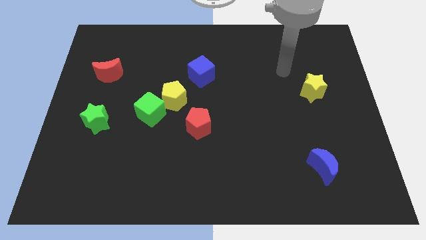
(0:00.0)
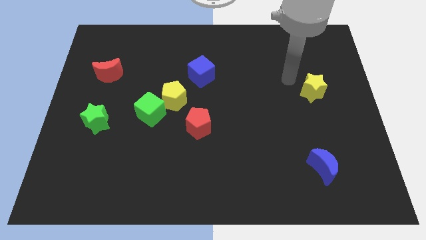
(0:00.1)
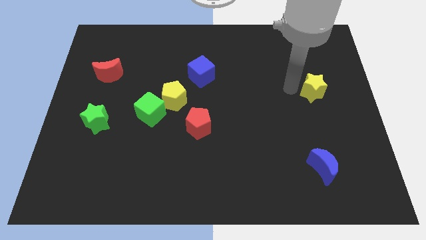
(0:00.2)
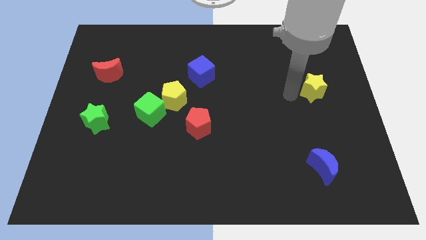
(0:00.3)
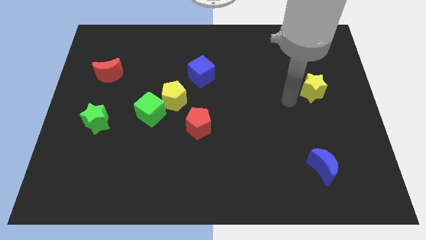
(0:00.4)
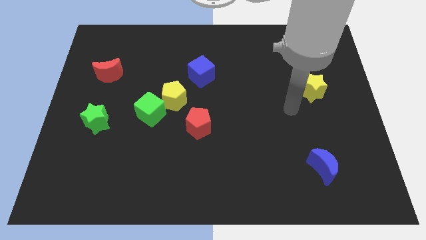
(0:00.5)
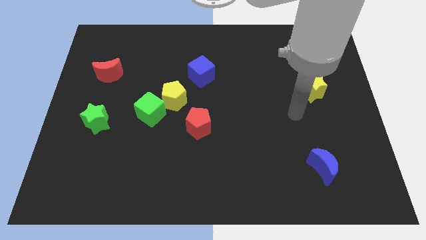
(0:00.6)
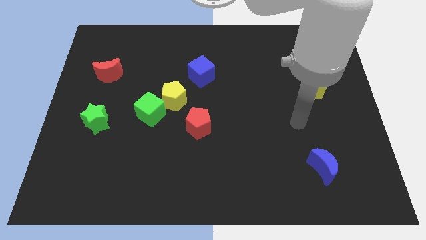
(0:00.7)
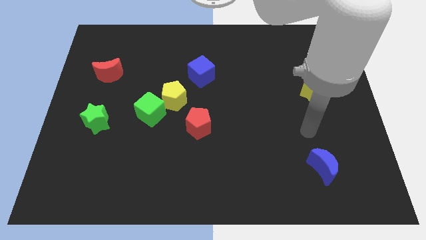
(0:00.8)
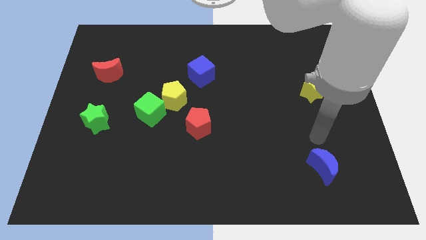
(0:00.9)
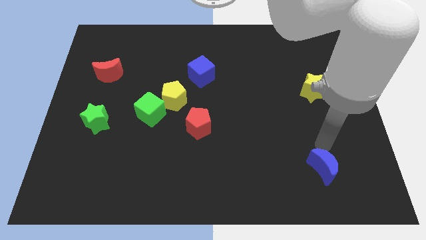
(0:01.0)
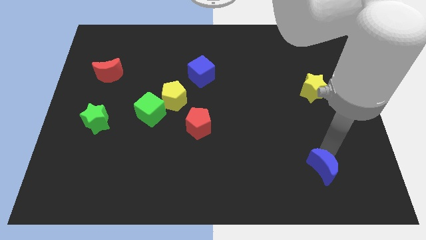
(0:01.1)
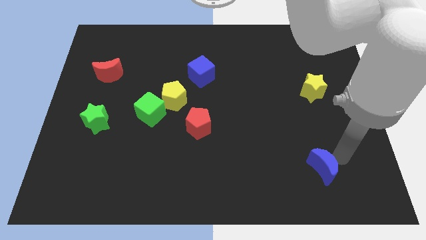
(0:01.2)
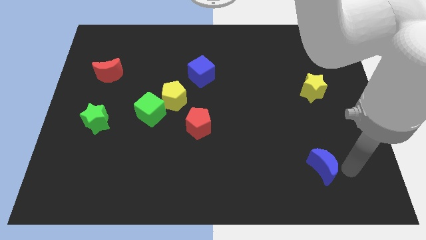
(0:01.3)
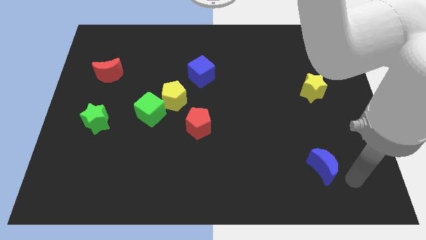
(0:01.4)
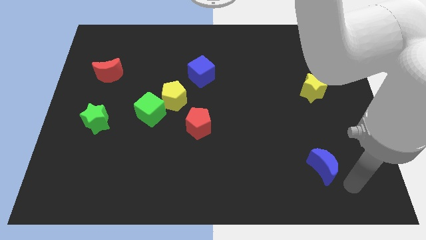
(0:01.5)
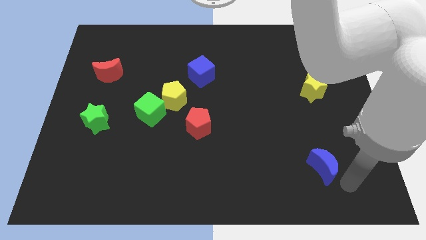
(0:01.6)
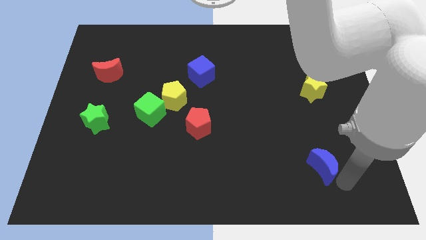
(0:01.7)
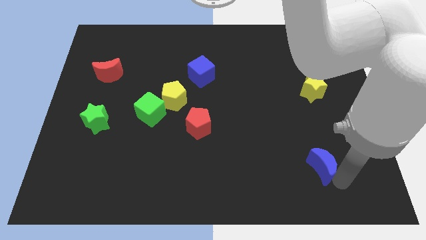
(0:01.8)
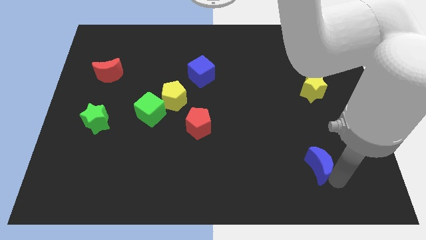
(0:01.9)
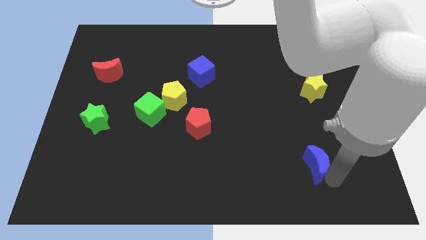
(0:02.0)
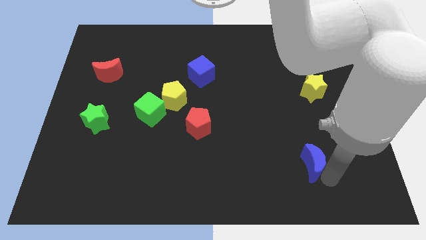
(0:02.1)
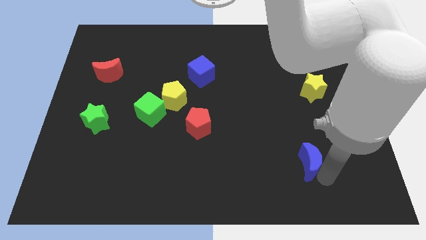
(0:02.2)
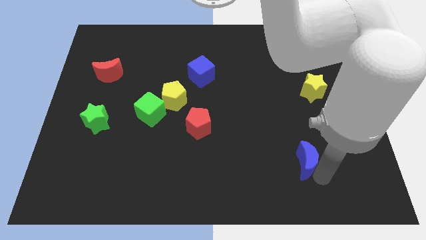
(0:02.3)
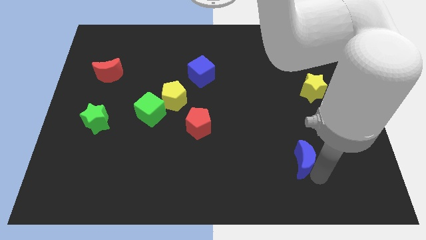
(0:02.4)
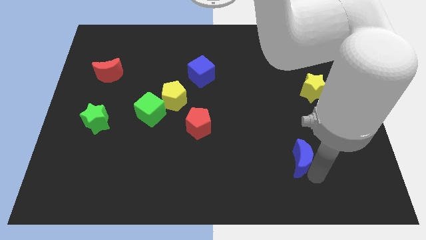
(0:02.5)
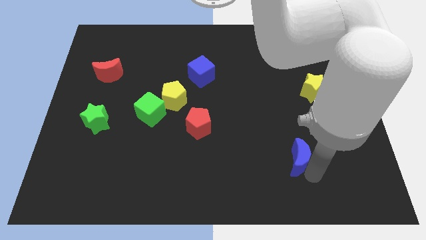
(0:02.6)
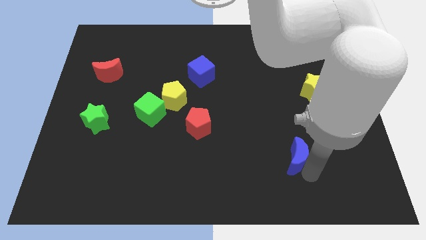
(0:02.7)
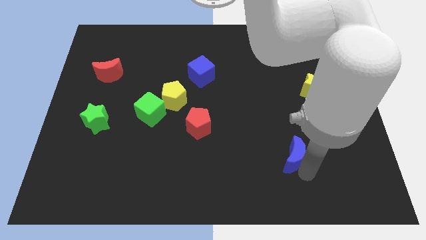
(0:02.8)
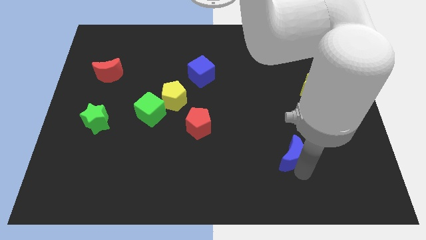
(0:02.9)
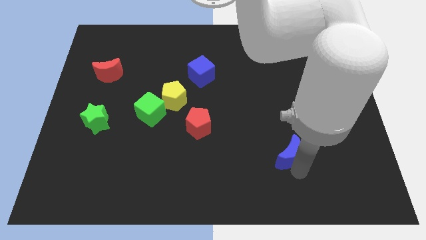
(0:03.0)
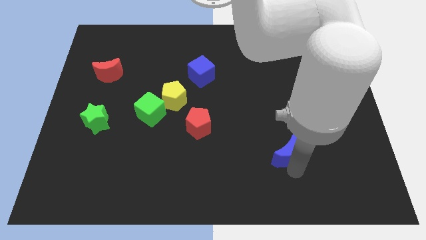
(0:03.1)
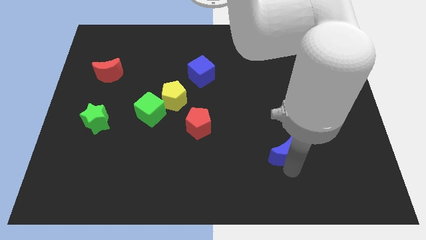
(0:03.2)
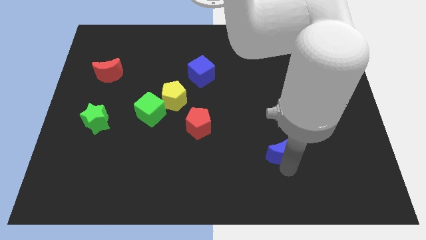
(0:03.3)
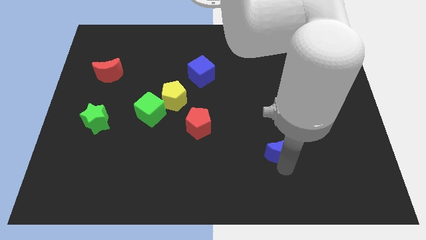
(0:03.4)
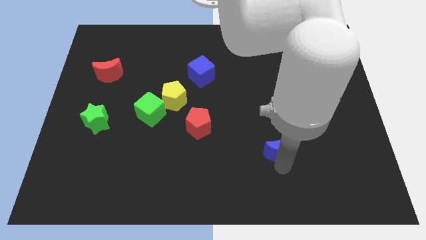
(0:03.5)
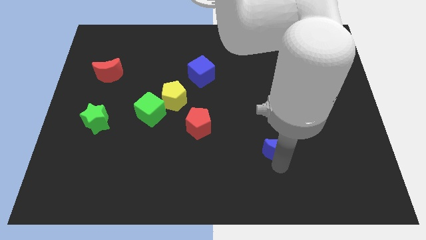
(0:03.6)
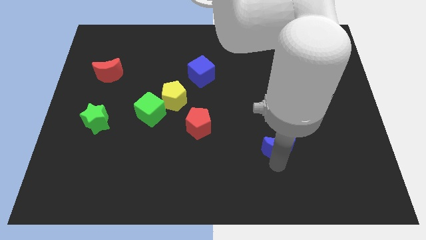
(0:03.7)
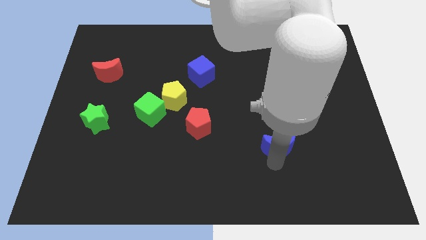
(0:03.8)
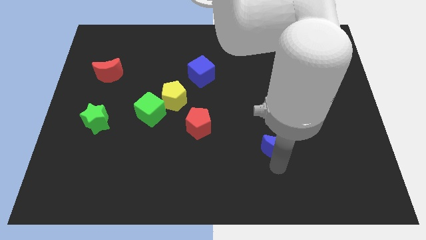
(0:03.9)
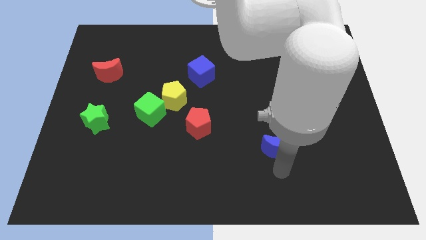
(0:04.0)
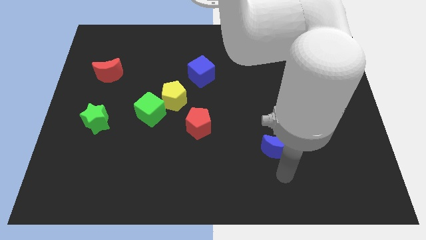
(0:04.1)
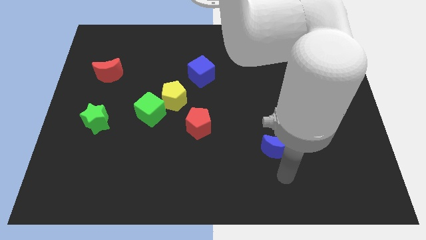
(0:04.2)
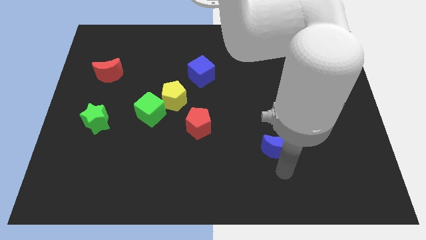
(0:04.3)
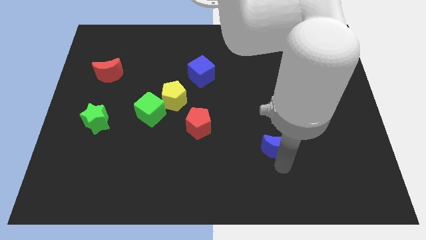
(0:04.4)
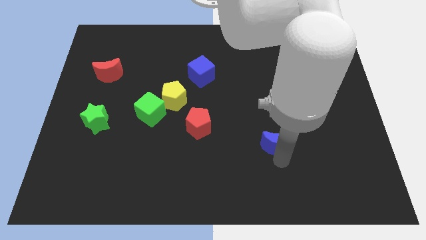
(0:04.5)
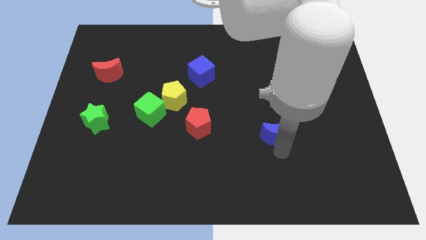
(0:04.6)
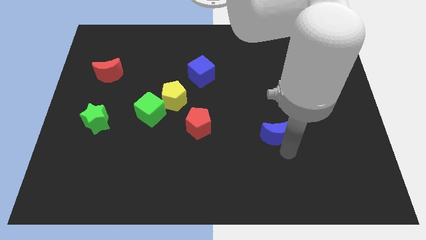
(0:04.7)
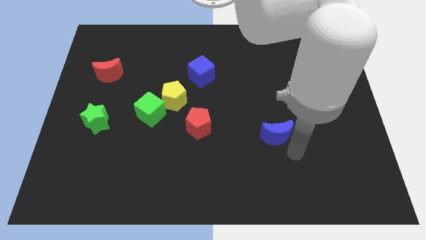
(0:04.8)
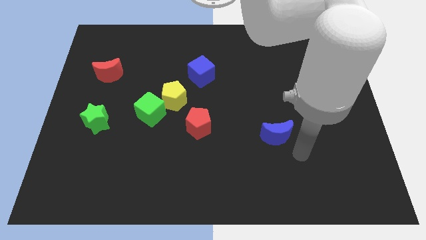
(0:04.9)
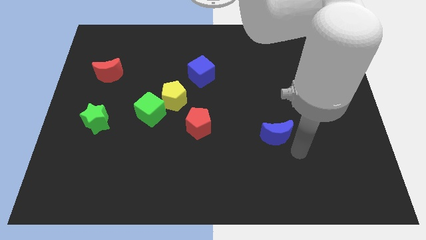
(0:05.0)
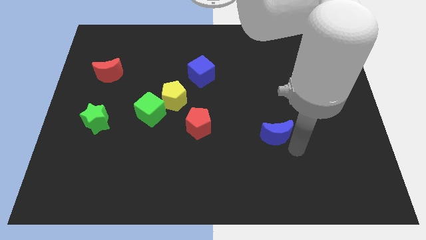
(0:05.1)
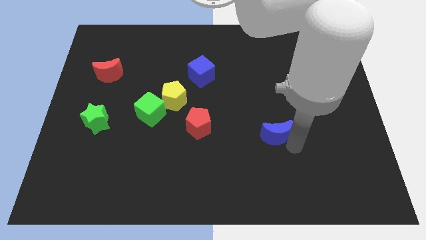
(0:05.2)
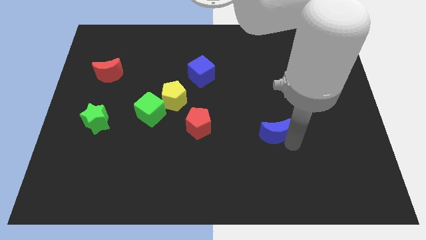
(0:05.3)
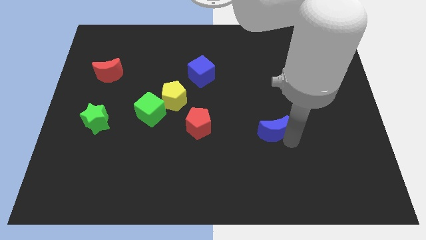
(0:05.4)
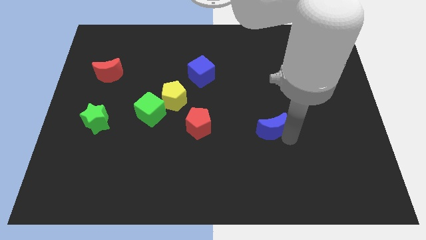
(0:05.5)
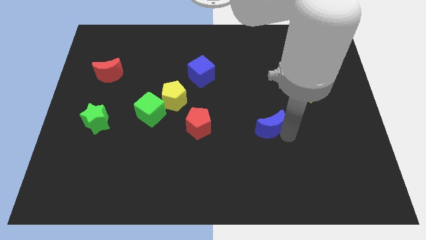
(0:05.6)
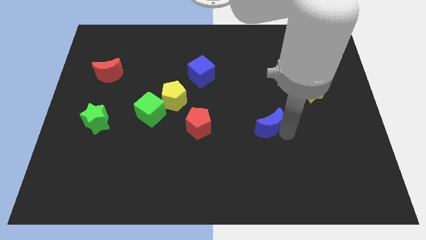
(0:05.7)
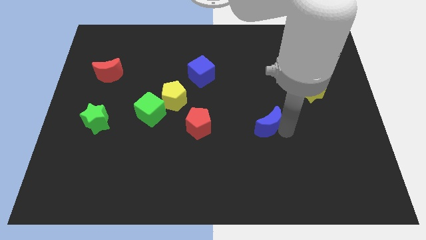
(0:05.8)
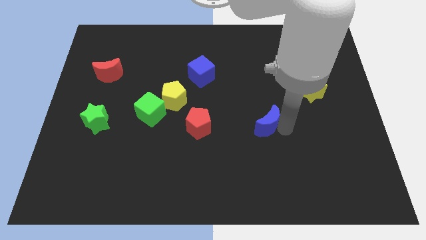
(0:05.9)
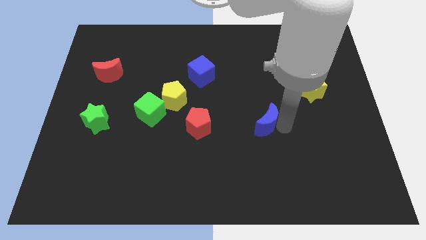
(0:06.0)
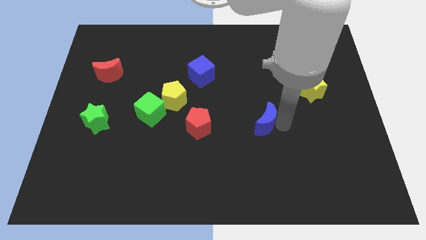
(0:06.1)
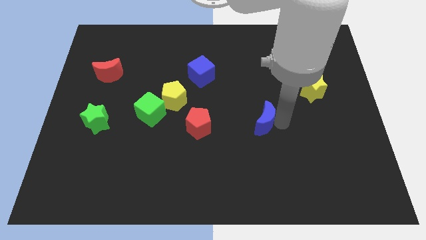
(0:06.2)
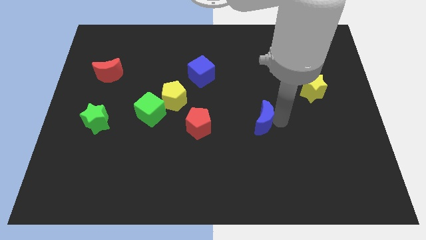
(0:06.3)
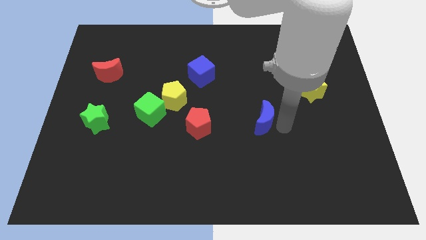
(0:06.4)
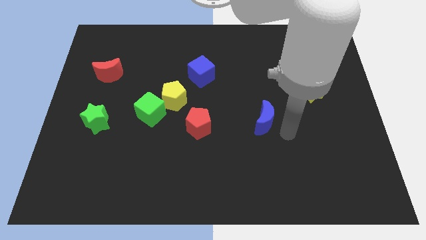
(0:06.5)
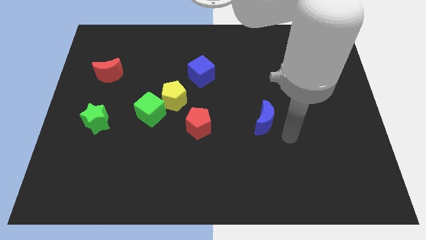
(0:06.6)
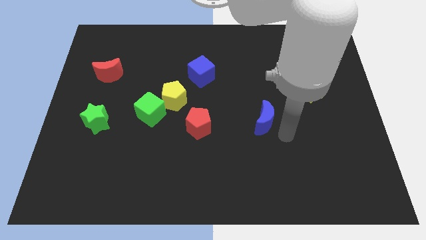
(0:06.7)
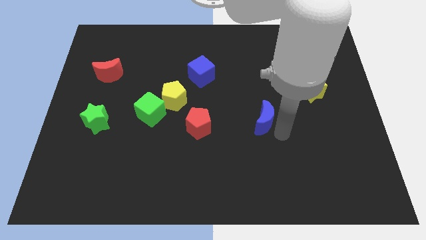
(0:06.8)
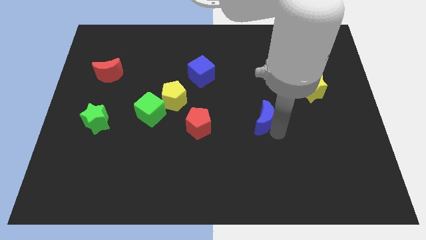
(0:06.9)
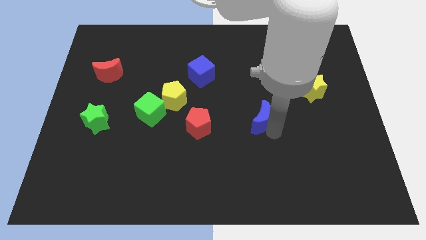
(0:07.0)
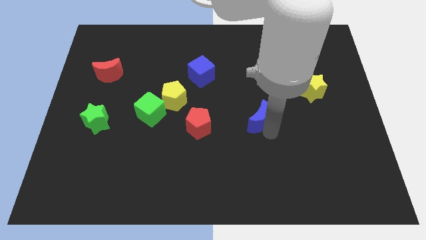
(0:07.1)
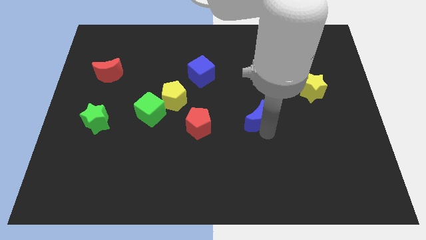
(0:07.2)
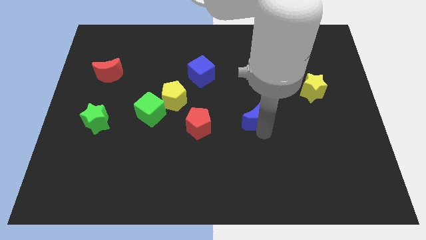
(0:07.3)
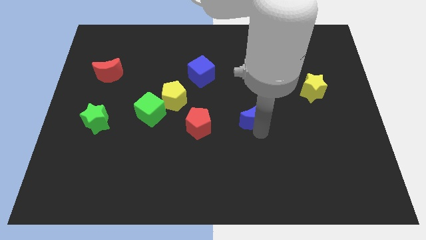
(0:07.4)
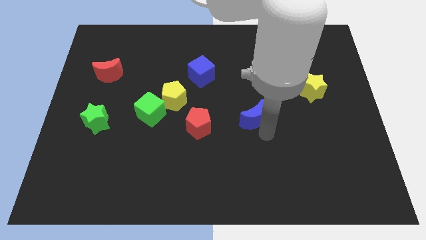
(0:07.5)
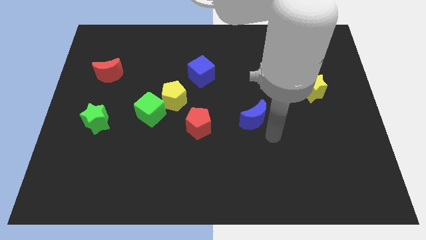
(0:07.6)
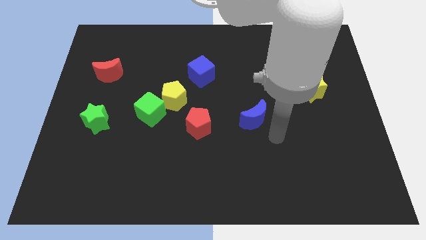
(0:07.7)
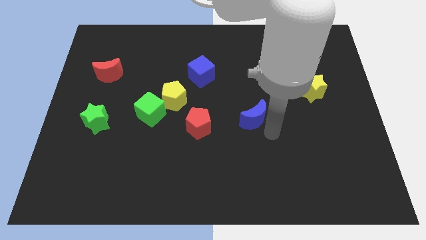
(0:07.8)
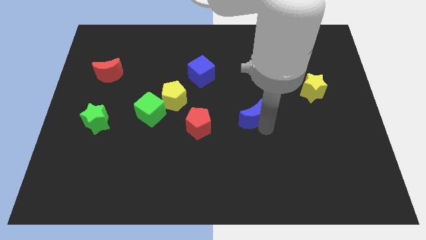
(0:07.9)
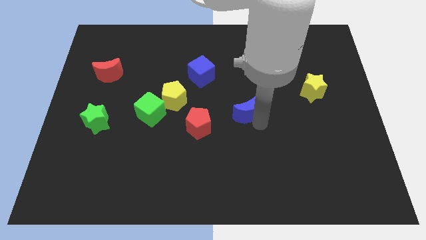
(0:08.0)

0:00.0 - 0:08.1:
move the blue moon diagonally up and left

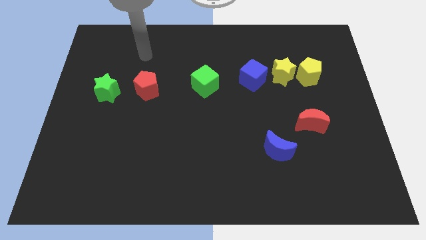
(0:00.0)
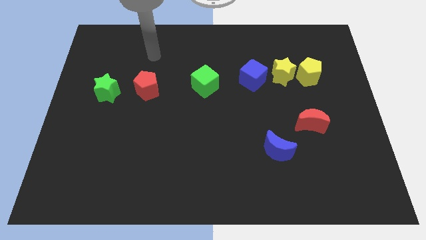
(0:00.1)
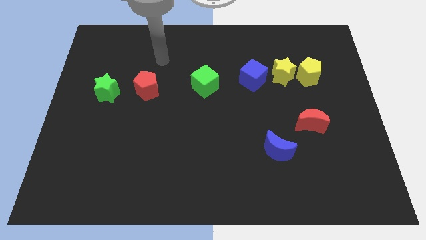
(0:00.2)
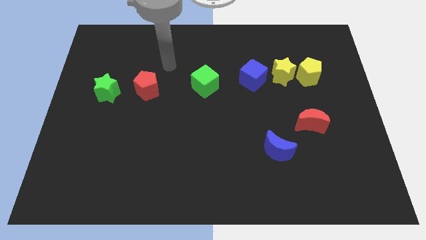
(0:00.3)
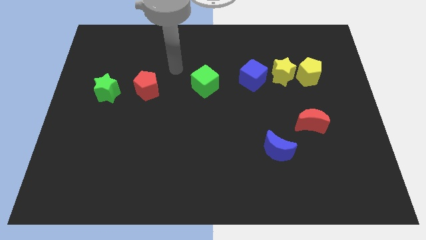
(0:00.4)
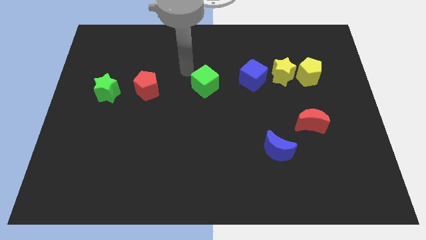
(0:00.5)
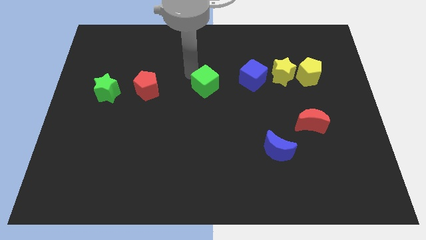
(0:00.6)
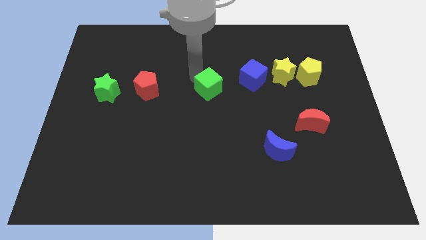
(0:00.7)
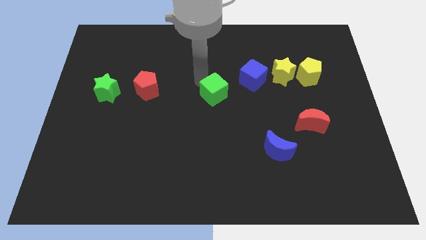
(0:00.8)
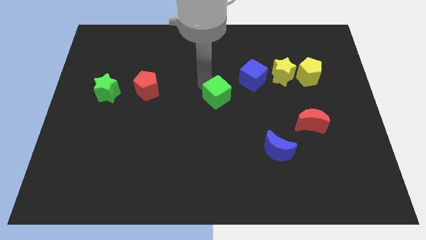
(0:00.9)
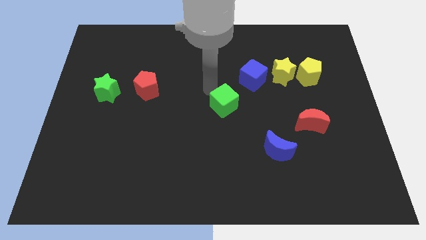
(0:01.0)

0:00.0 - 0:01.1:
push the green cube a little bit down and to the right diagonally
